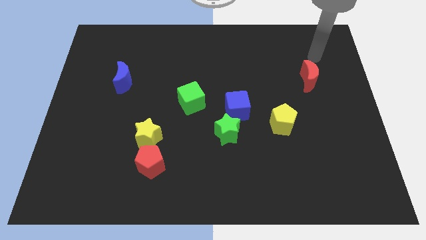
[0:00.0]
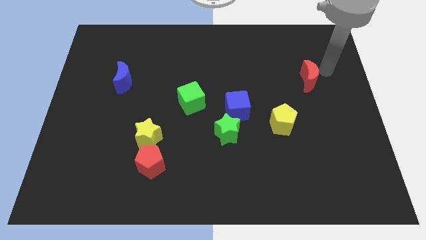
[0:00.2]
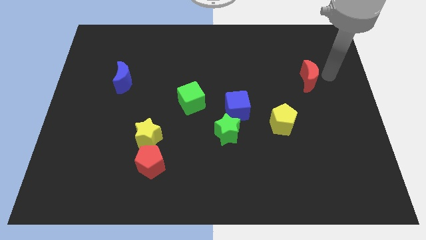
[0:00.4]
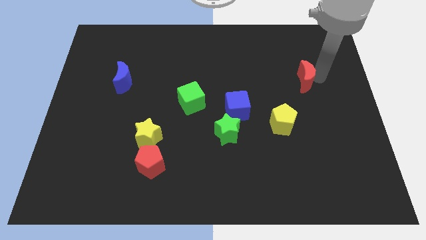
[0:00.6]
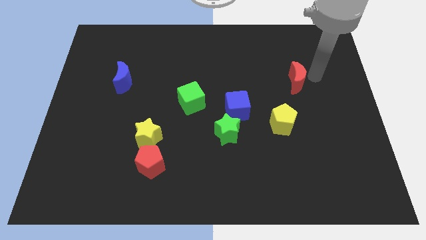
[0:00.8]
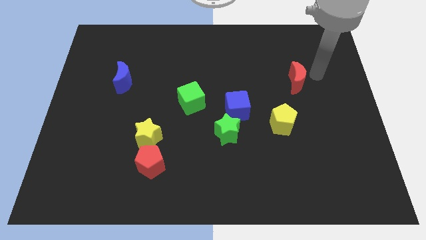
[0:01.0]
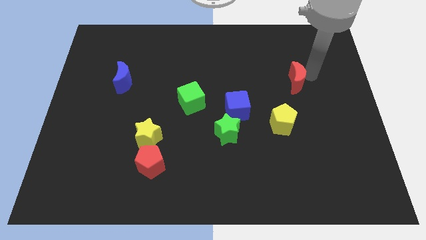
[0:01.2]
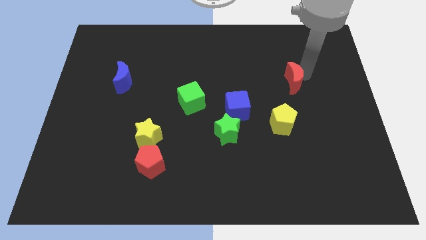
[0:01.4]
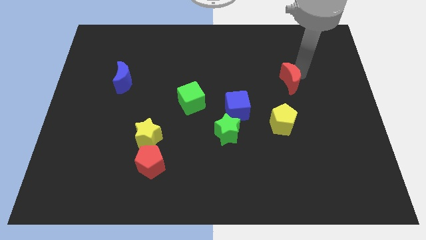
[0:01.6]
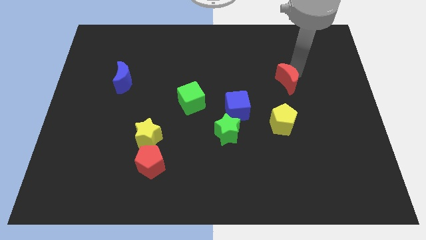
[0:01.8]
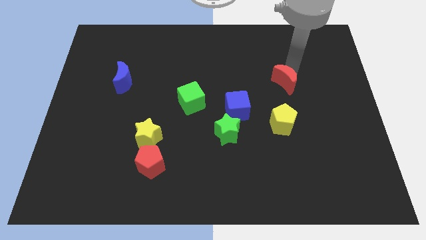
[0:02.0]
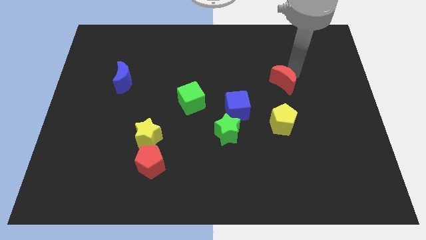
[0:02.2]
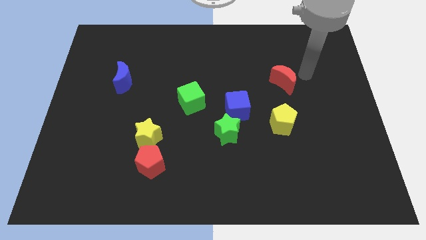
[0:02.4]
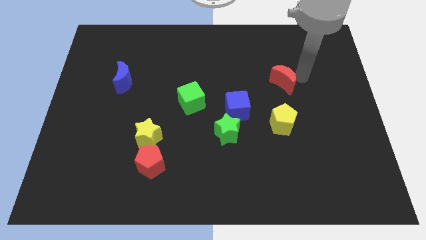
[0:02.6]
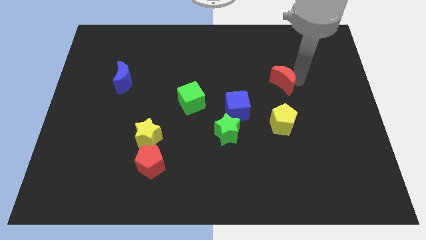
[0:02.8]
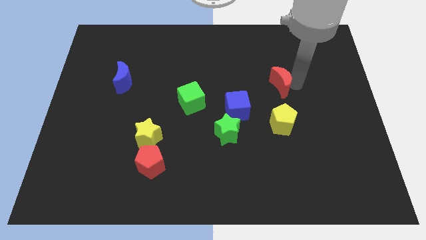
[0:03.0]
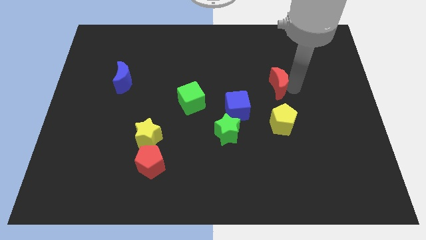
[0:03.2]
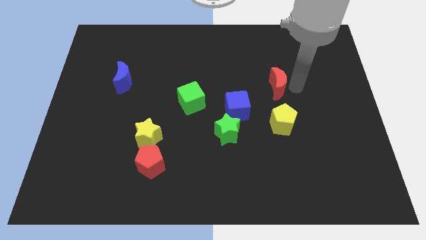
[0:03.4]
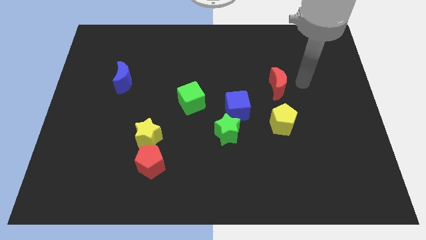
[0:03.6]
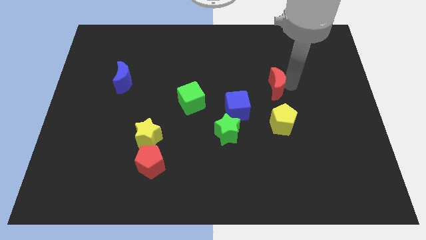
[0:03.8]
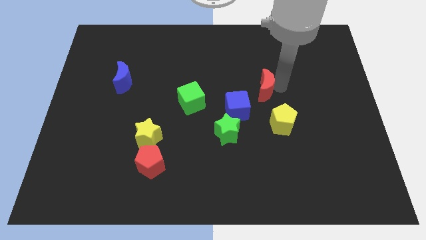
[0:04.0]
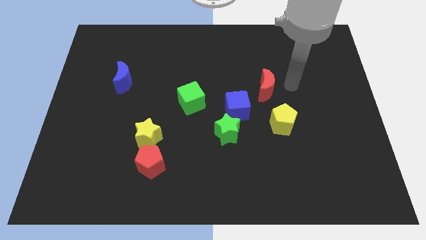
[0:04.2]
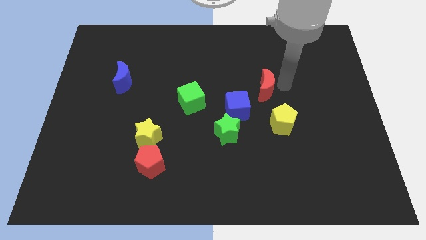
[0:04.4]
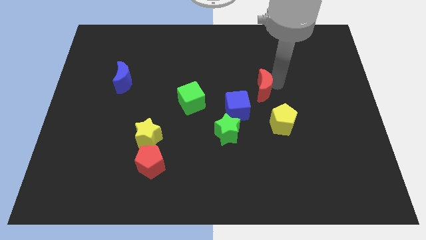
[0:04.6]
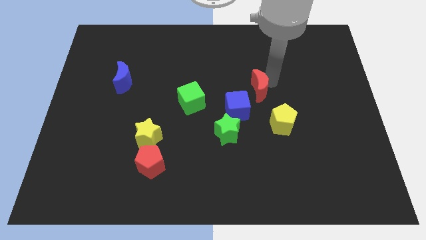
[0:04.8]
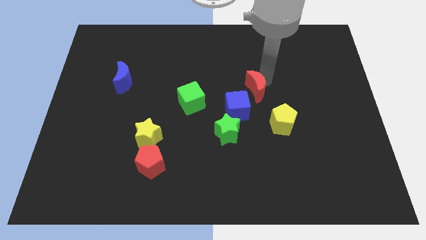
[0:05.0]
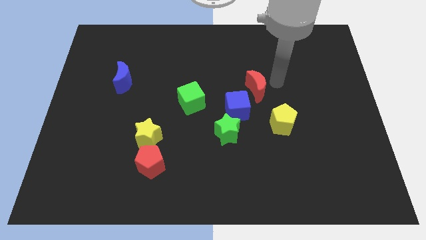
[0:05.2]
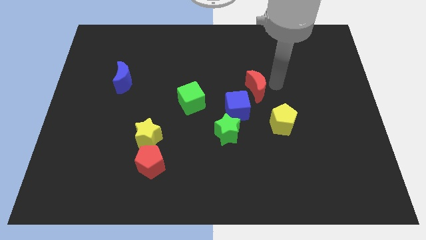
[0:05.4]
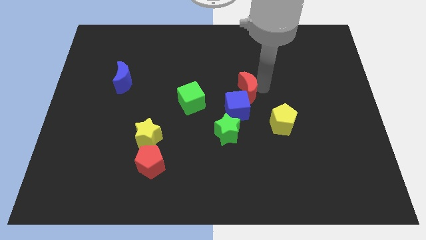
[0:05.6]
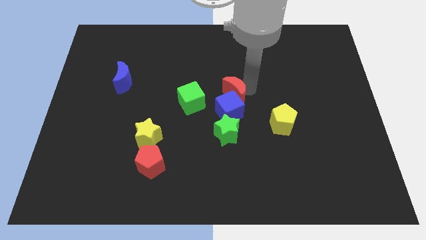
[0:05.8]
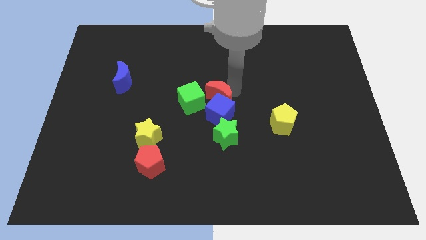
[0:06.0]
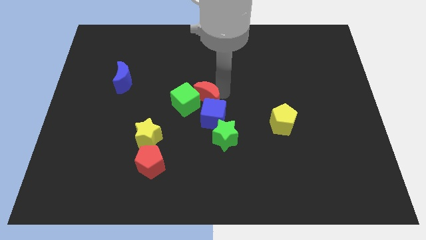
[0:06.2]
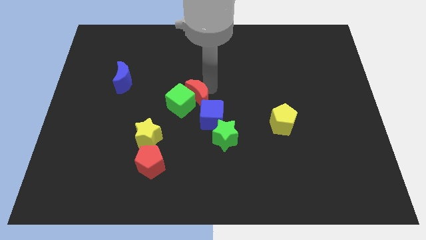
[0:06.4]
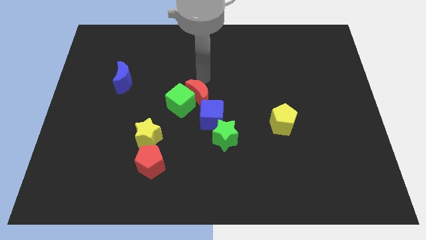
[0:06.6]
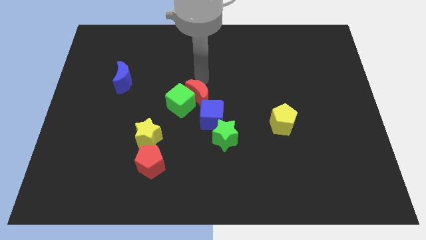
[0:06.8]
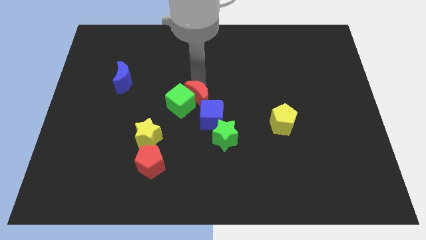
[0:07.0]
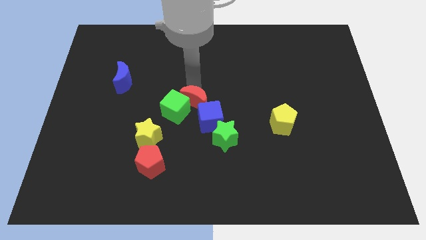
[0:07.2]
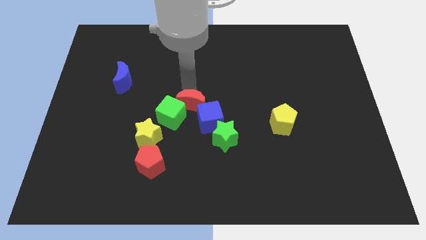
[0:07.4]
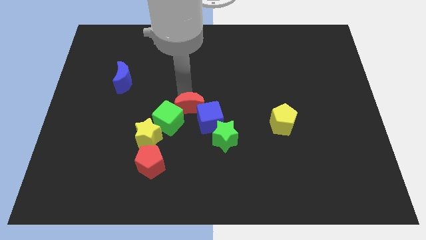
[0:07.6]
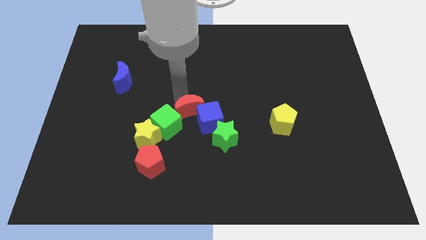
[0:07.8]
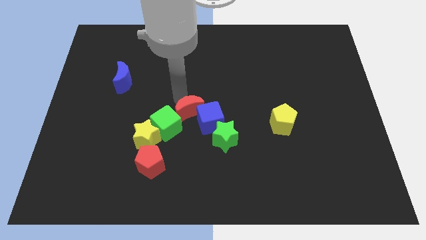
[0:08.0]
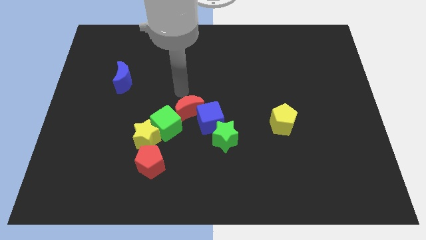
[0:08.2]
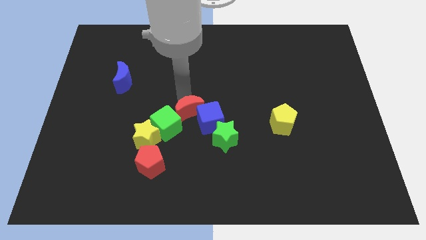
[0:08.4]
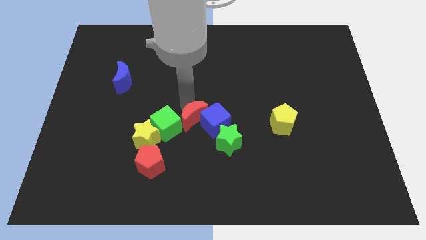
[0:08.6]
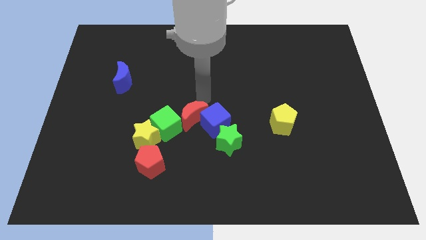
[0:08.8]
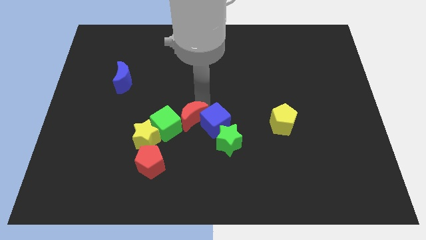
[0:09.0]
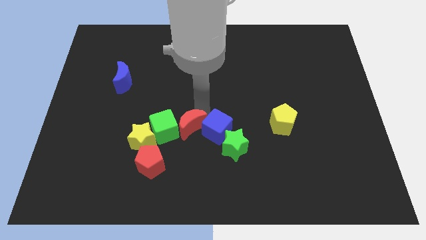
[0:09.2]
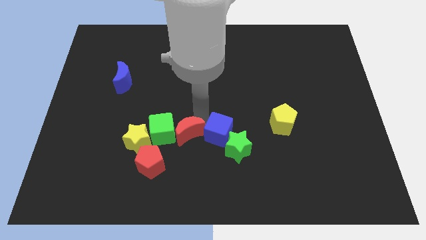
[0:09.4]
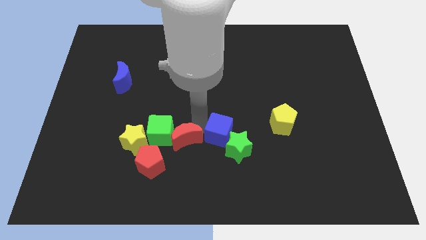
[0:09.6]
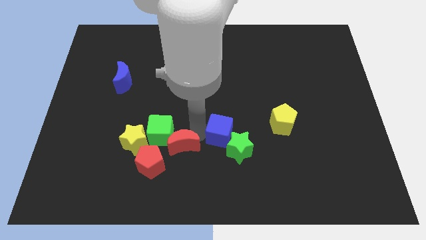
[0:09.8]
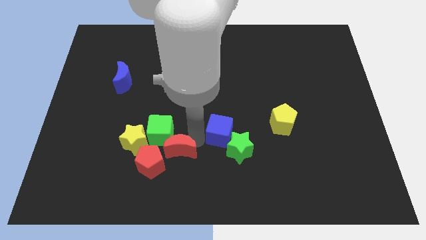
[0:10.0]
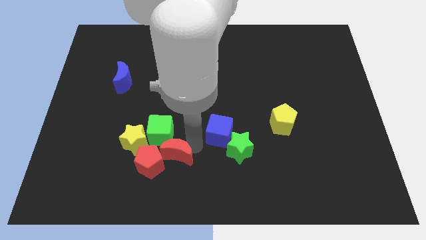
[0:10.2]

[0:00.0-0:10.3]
put the red moon diagonally down and to the right of the yellow star

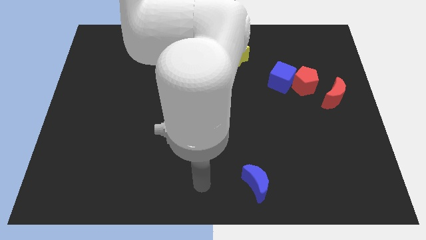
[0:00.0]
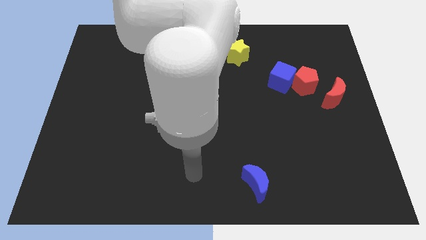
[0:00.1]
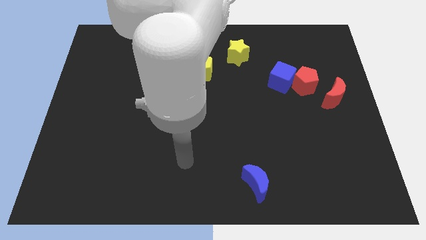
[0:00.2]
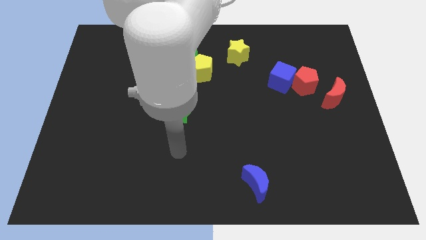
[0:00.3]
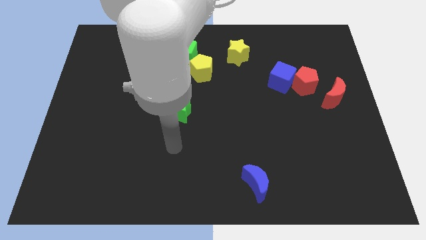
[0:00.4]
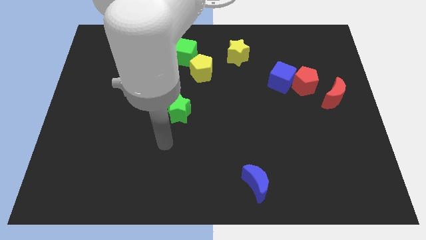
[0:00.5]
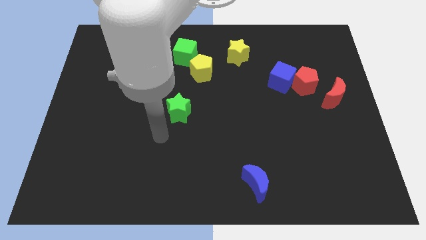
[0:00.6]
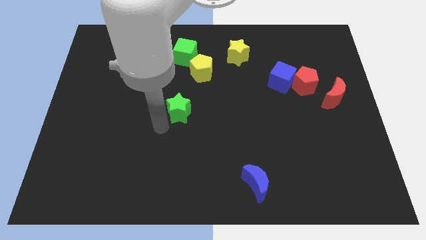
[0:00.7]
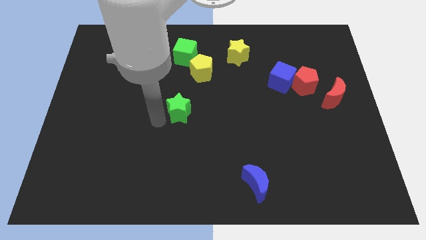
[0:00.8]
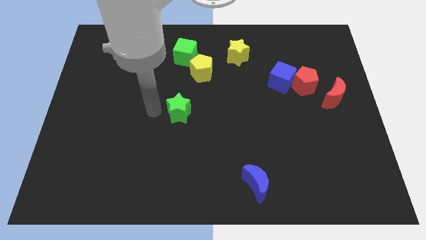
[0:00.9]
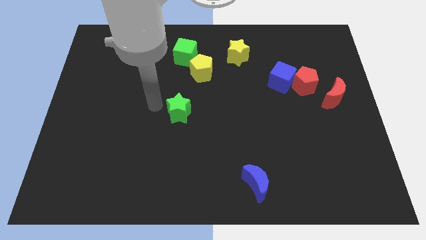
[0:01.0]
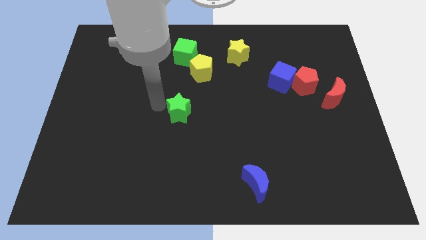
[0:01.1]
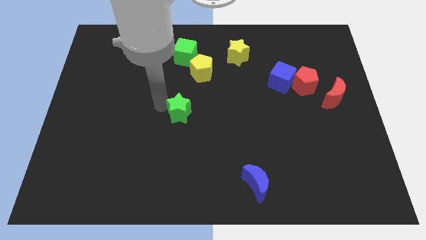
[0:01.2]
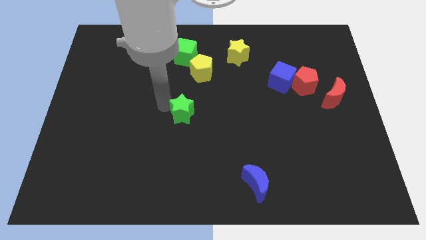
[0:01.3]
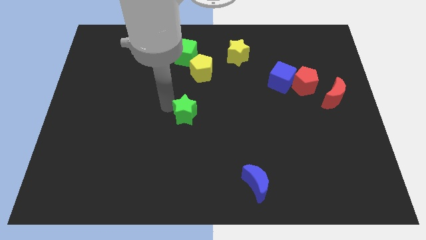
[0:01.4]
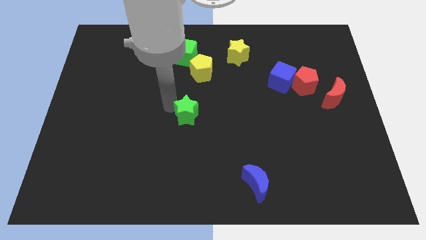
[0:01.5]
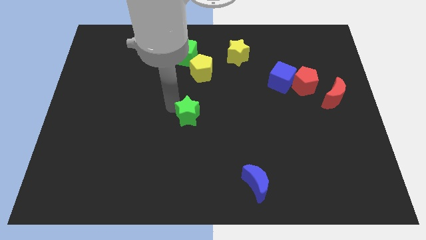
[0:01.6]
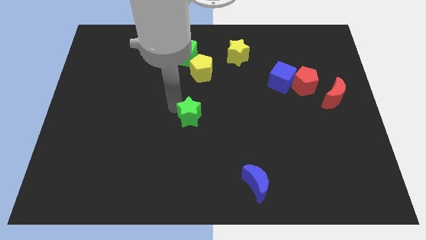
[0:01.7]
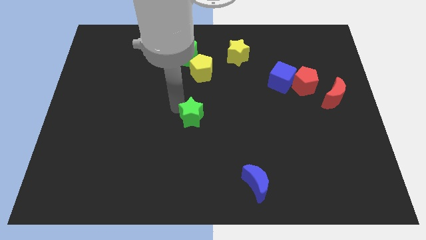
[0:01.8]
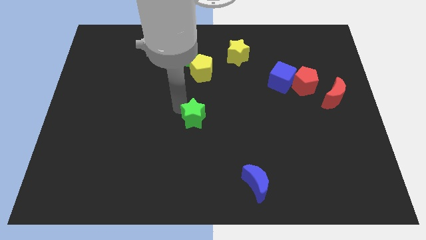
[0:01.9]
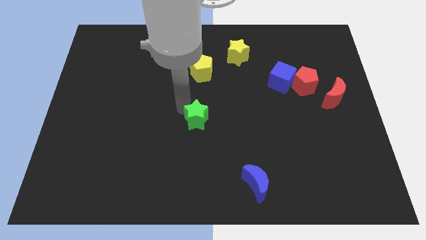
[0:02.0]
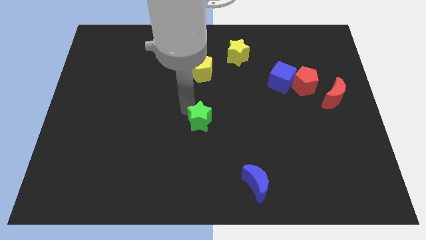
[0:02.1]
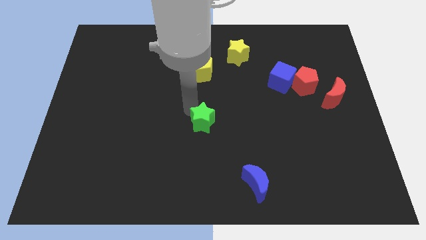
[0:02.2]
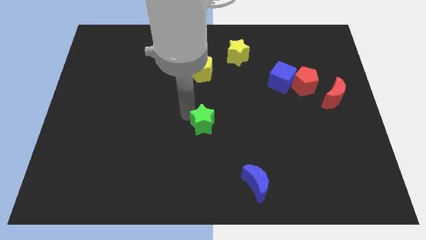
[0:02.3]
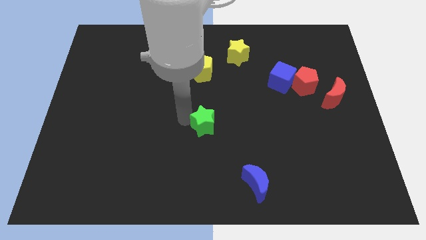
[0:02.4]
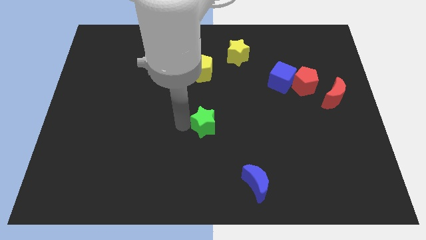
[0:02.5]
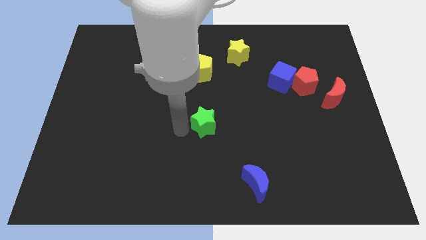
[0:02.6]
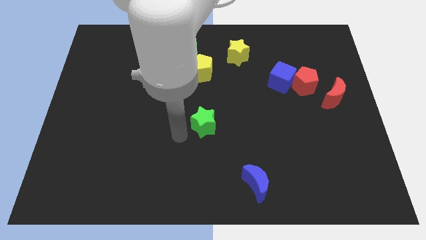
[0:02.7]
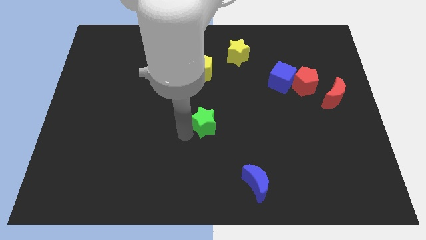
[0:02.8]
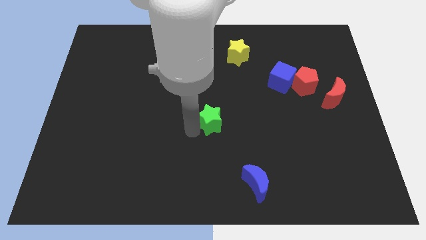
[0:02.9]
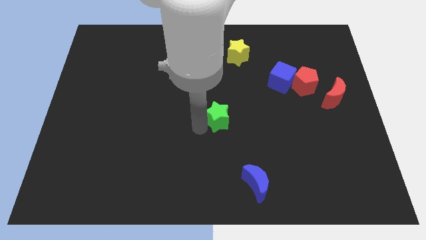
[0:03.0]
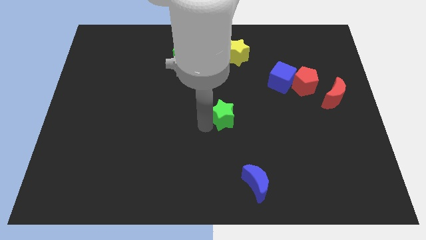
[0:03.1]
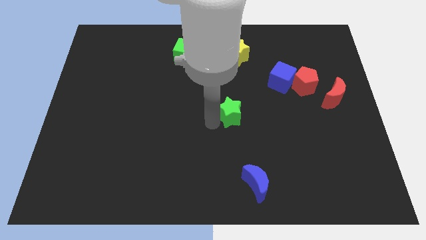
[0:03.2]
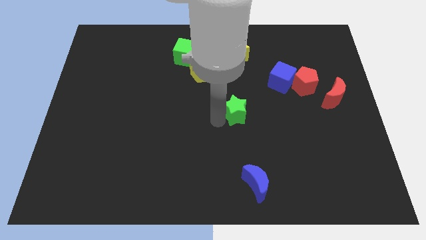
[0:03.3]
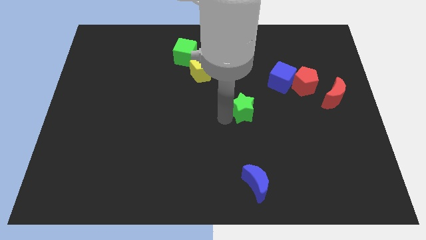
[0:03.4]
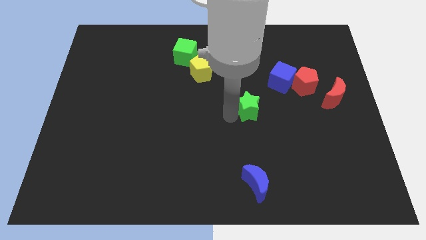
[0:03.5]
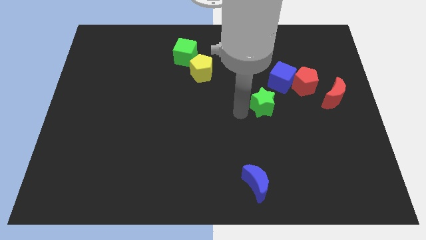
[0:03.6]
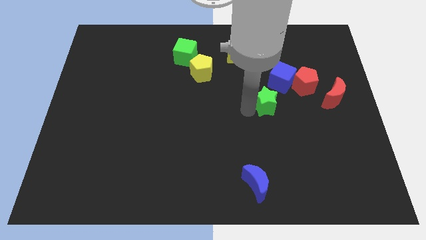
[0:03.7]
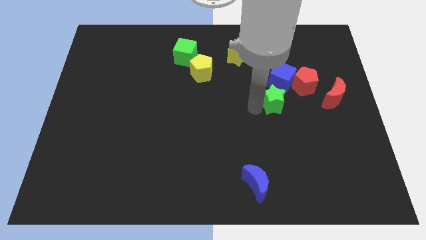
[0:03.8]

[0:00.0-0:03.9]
slide the green star to the left side of the red moon
